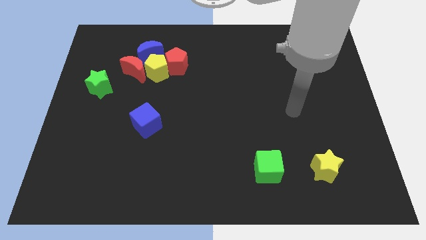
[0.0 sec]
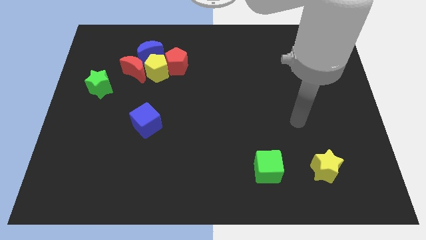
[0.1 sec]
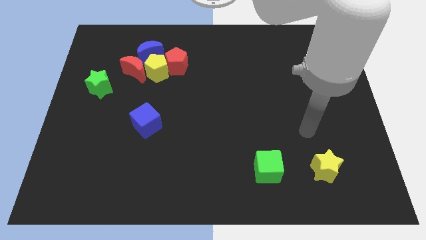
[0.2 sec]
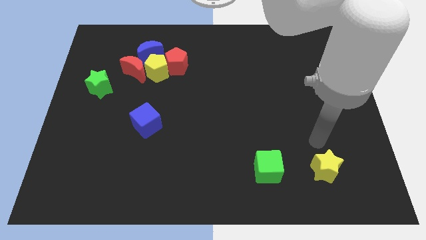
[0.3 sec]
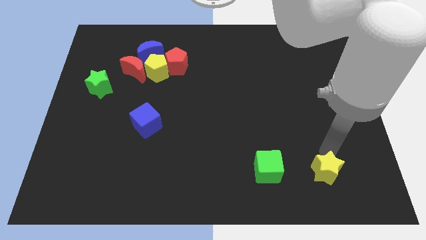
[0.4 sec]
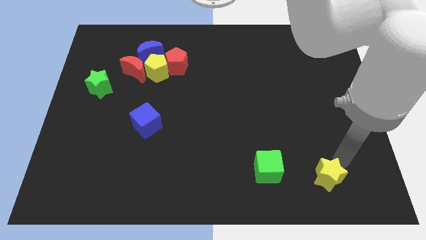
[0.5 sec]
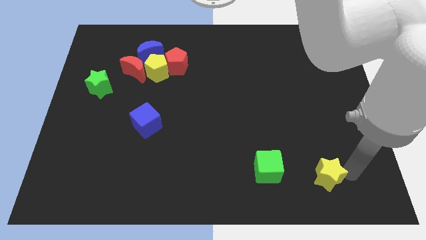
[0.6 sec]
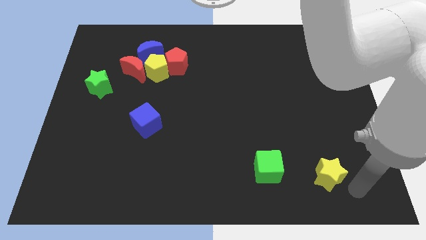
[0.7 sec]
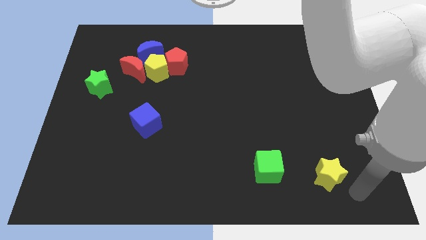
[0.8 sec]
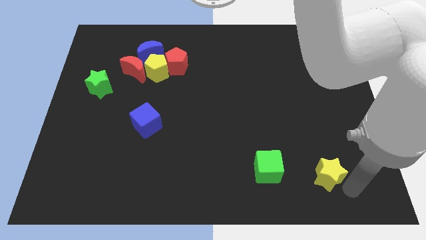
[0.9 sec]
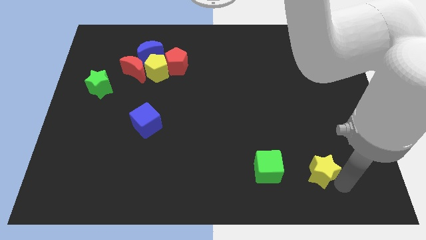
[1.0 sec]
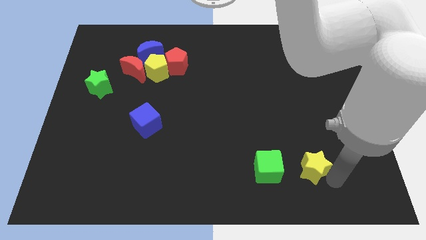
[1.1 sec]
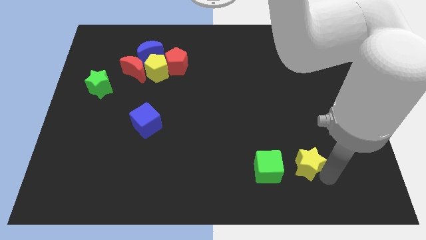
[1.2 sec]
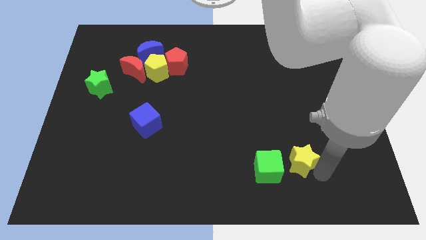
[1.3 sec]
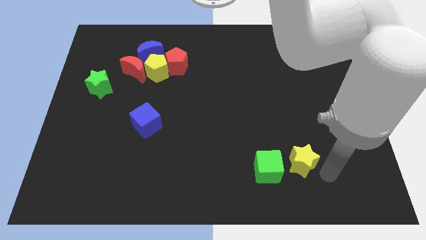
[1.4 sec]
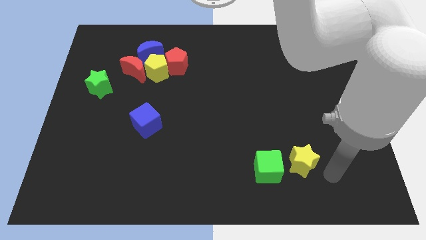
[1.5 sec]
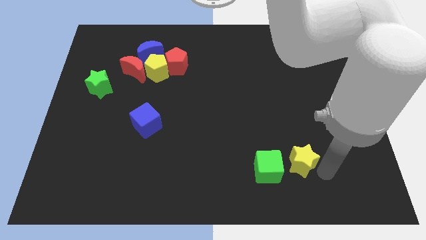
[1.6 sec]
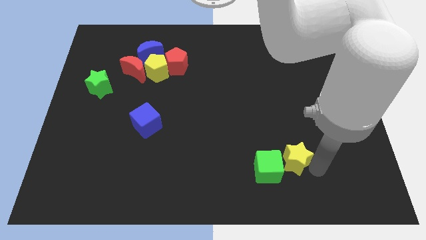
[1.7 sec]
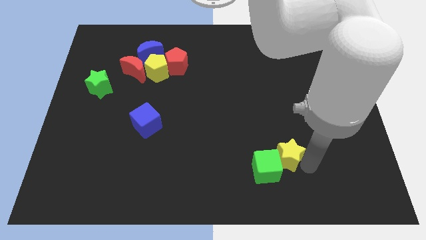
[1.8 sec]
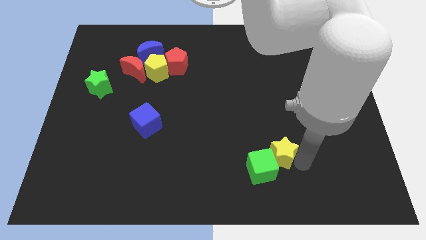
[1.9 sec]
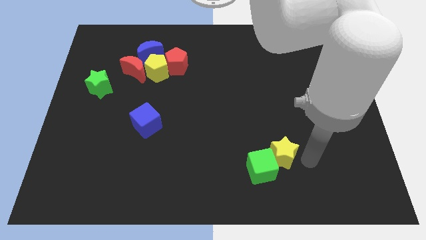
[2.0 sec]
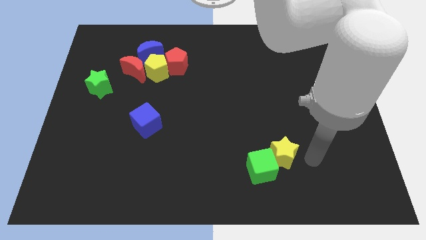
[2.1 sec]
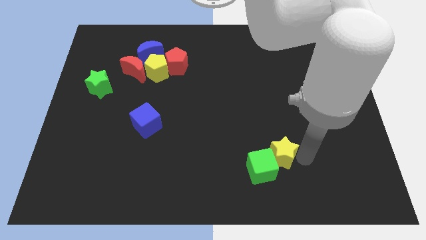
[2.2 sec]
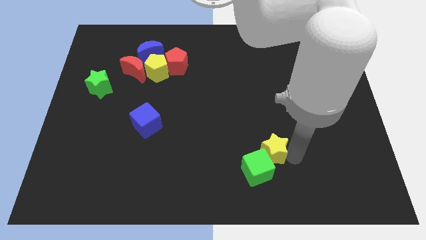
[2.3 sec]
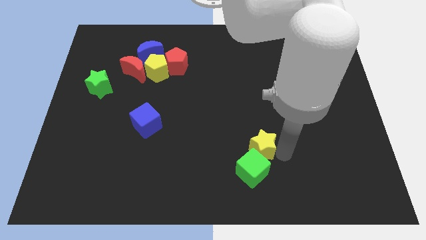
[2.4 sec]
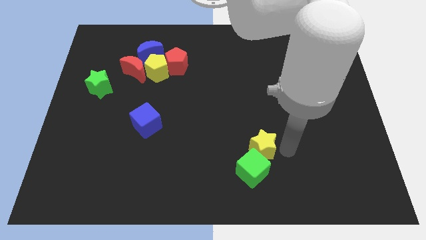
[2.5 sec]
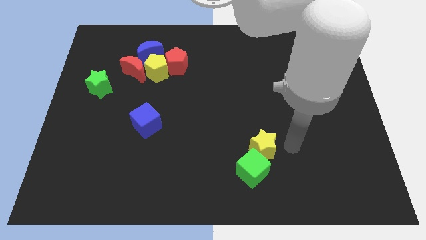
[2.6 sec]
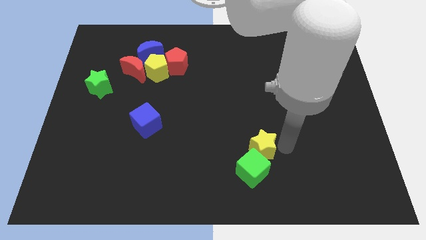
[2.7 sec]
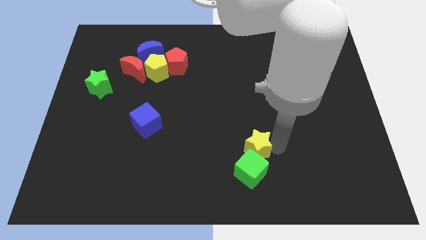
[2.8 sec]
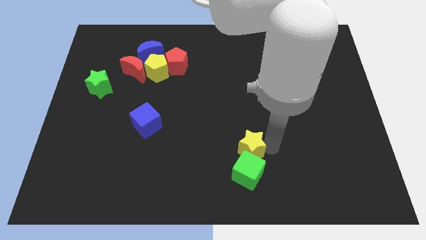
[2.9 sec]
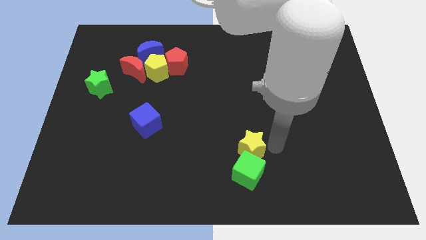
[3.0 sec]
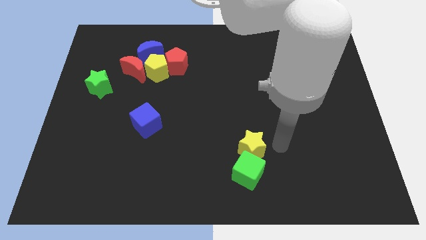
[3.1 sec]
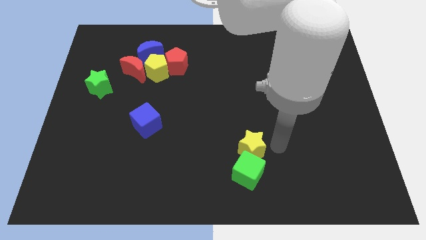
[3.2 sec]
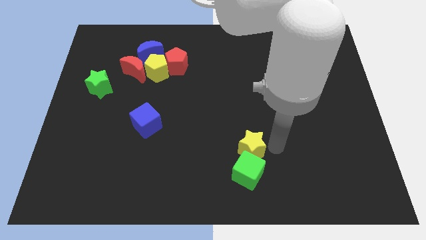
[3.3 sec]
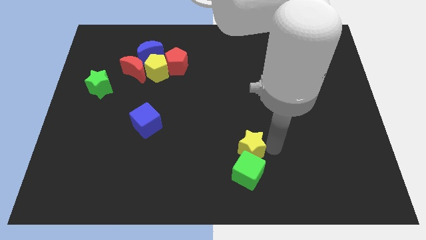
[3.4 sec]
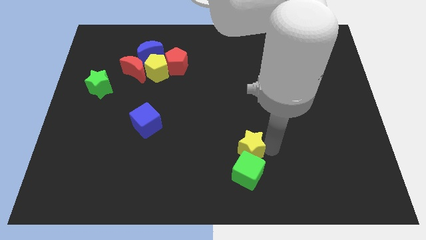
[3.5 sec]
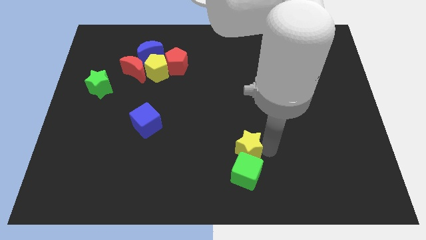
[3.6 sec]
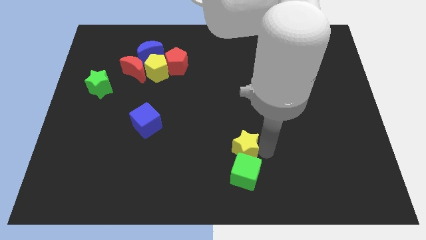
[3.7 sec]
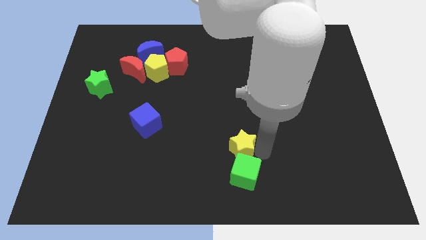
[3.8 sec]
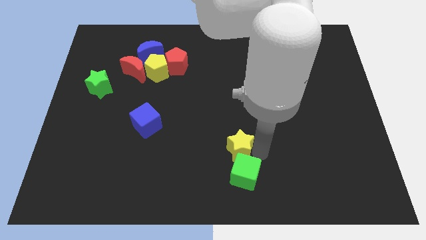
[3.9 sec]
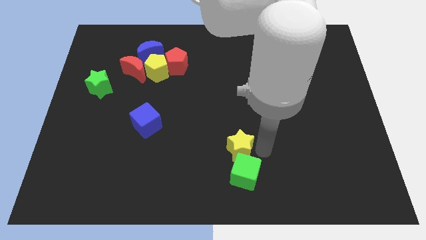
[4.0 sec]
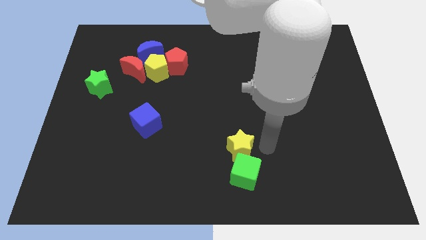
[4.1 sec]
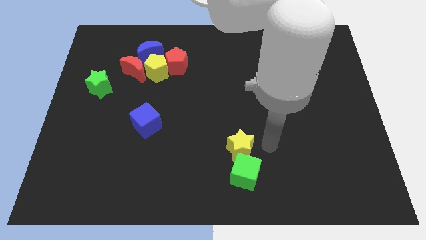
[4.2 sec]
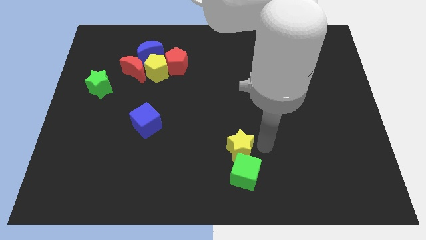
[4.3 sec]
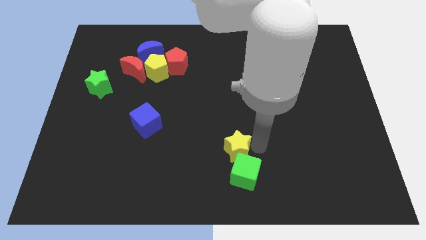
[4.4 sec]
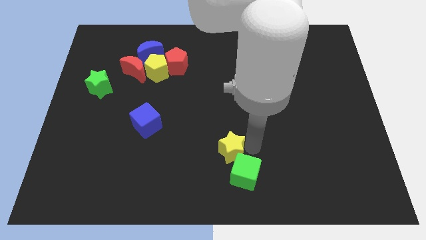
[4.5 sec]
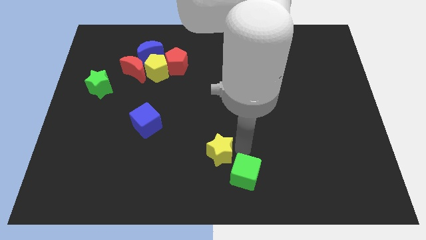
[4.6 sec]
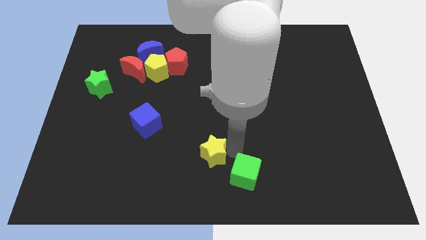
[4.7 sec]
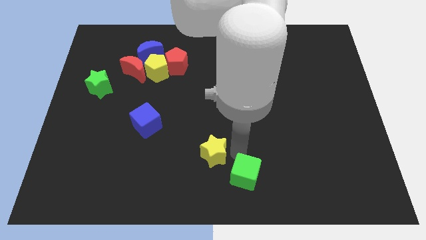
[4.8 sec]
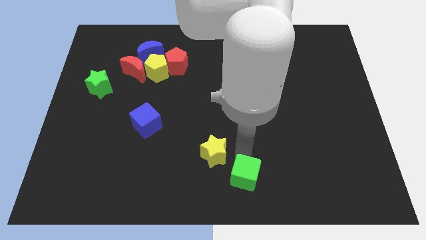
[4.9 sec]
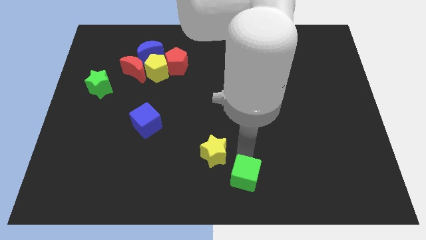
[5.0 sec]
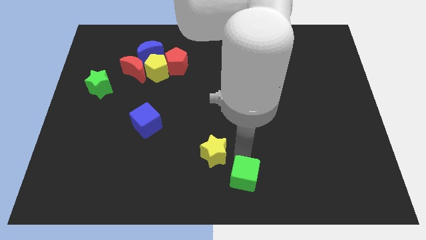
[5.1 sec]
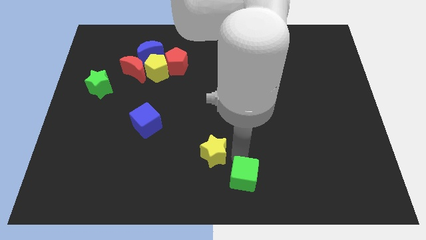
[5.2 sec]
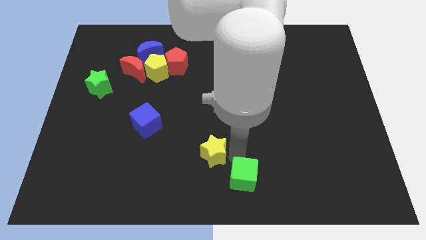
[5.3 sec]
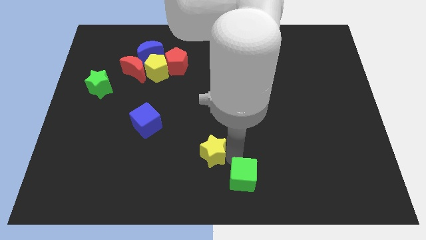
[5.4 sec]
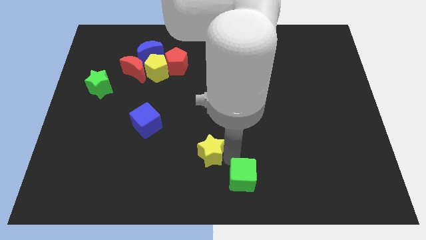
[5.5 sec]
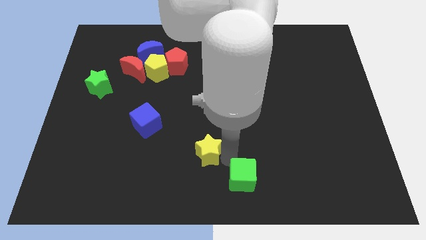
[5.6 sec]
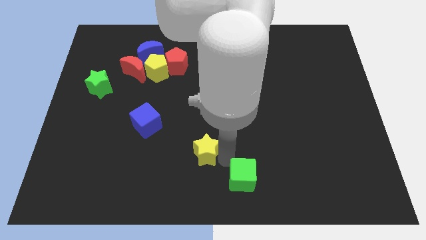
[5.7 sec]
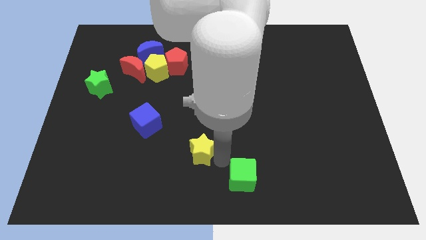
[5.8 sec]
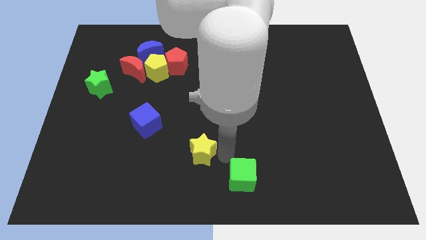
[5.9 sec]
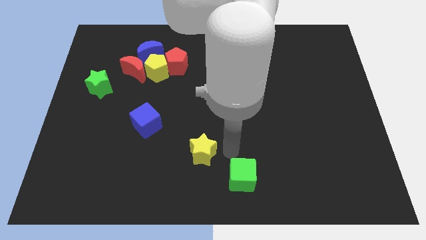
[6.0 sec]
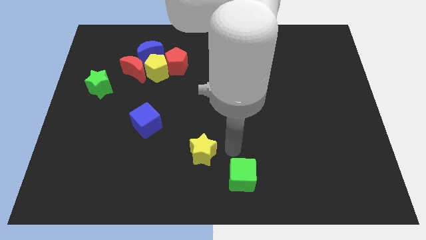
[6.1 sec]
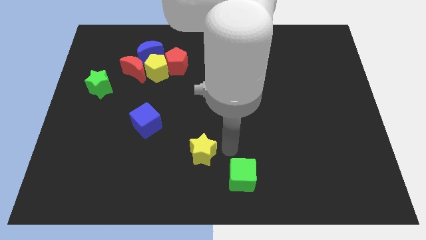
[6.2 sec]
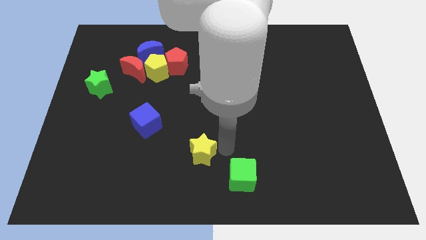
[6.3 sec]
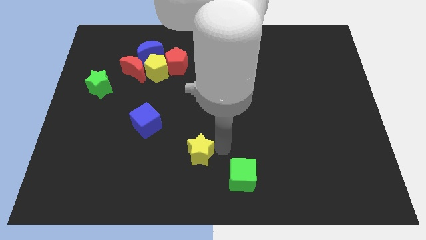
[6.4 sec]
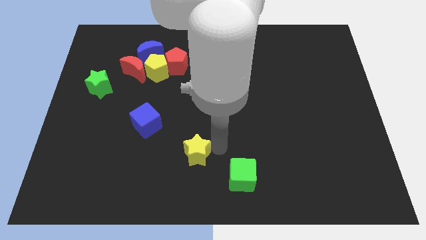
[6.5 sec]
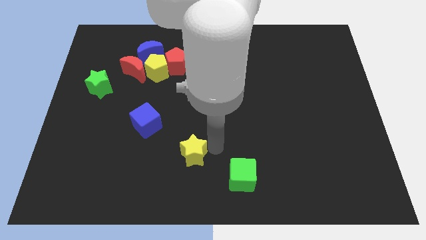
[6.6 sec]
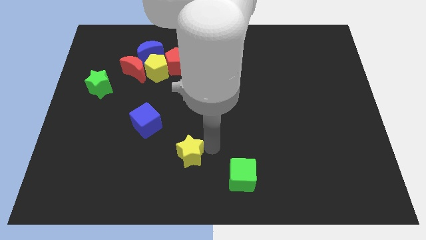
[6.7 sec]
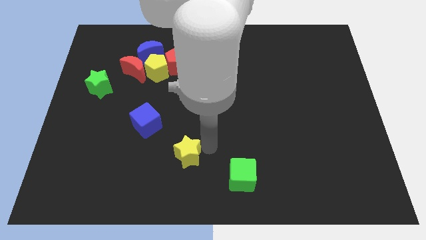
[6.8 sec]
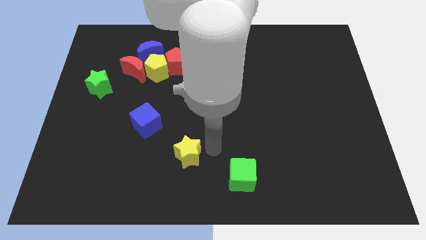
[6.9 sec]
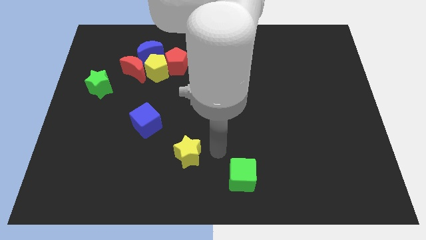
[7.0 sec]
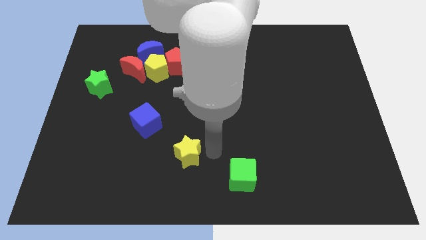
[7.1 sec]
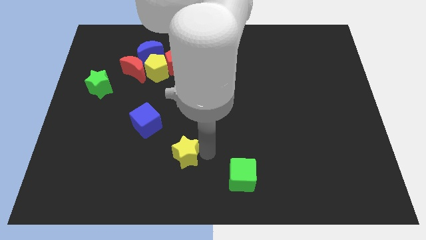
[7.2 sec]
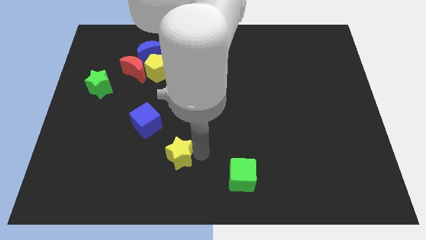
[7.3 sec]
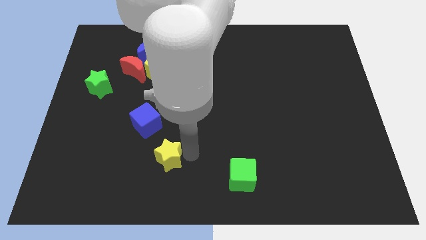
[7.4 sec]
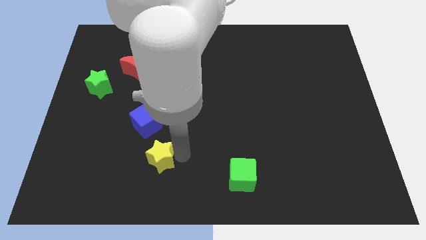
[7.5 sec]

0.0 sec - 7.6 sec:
put the yellow star to the bottom side of the blue cube

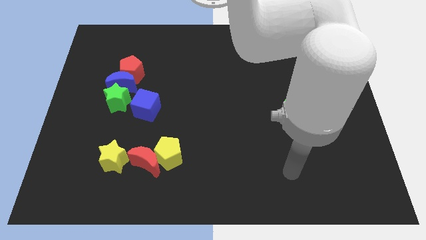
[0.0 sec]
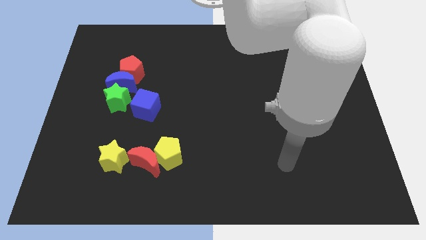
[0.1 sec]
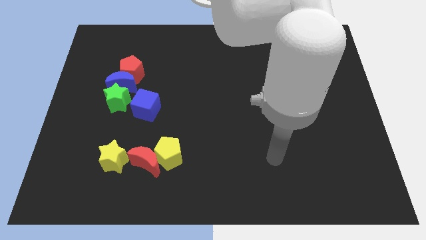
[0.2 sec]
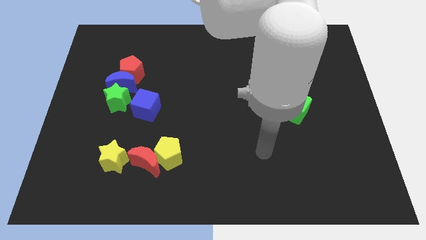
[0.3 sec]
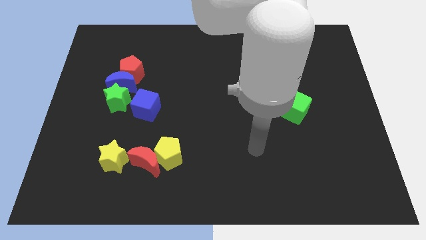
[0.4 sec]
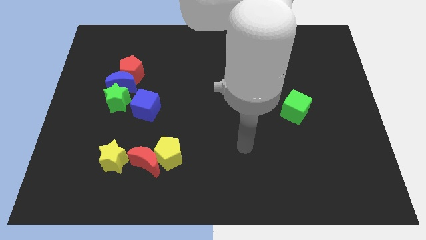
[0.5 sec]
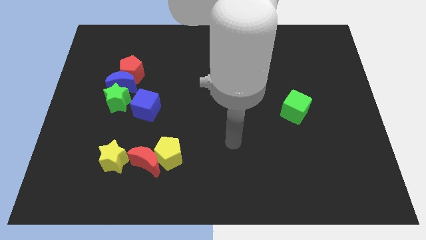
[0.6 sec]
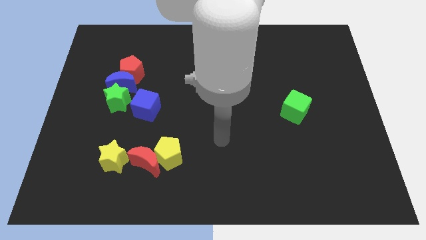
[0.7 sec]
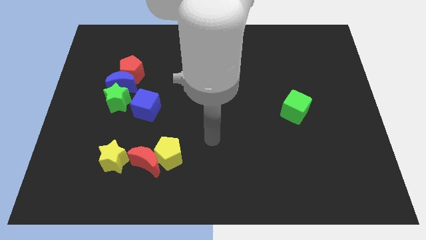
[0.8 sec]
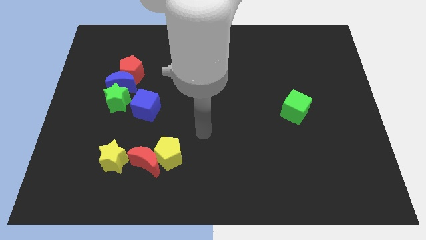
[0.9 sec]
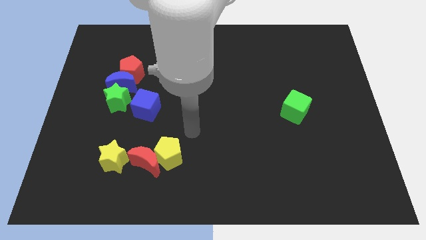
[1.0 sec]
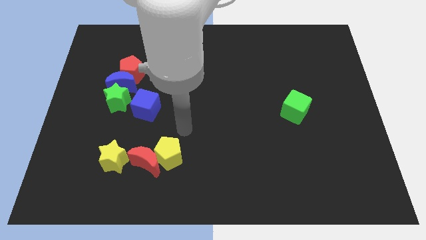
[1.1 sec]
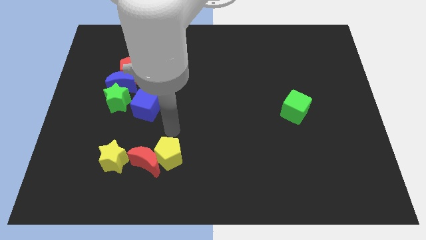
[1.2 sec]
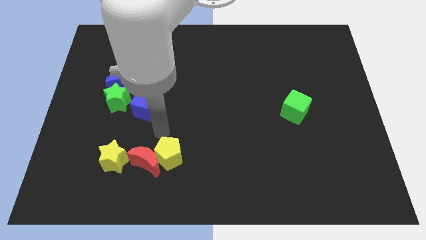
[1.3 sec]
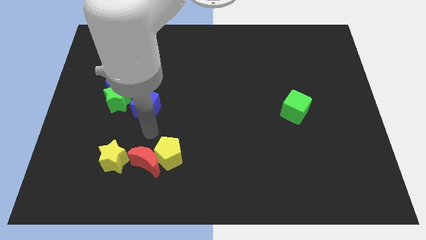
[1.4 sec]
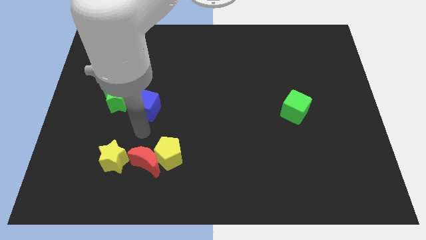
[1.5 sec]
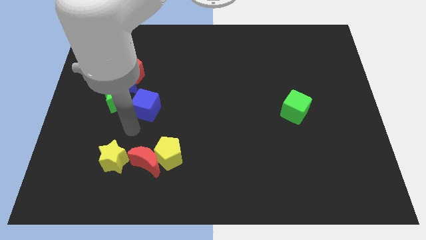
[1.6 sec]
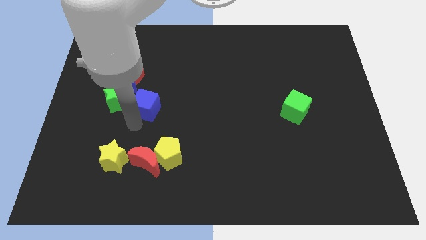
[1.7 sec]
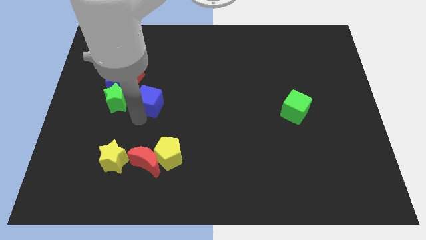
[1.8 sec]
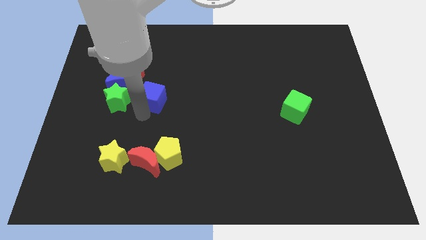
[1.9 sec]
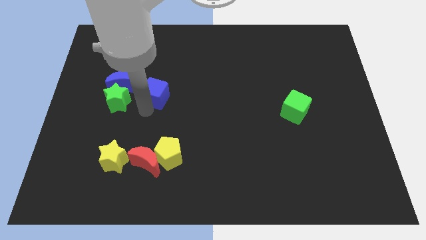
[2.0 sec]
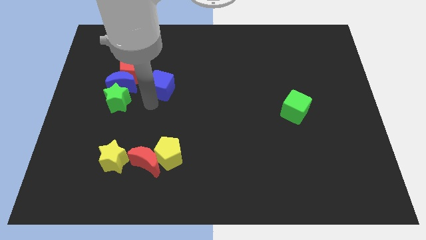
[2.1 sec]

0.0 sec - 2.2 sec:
put the blue cube to the right of the red pentagon
